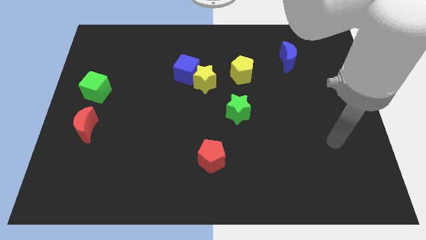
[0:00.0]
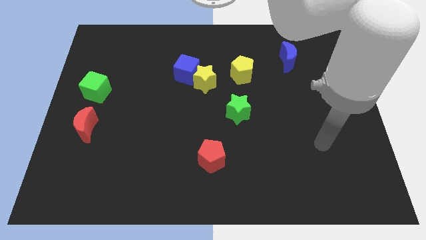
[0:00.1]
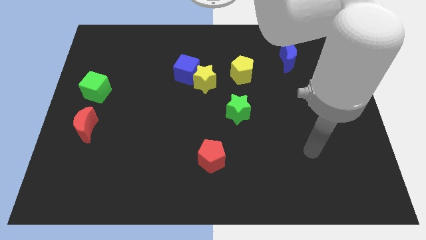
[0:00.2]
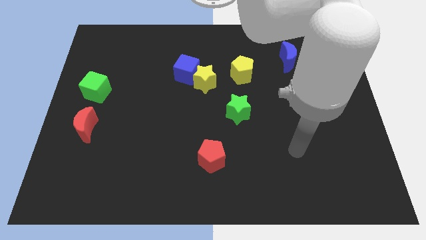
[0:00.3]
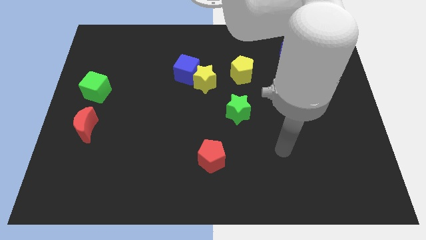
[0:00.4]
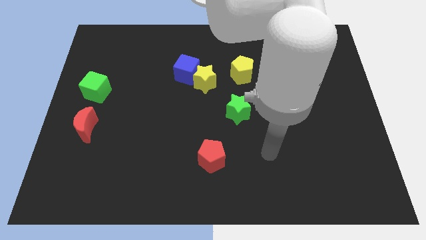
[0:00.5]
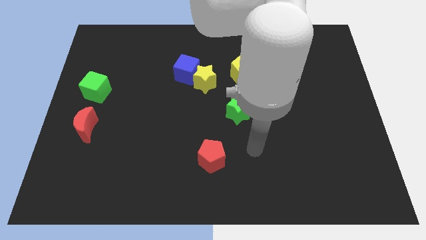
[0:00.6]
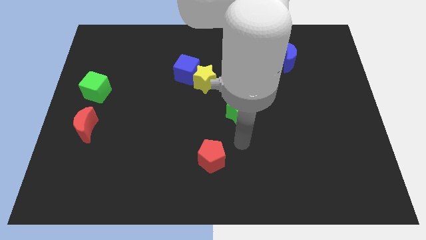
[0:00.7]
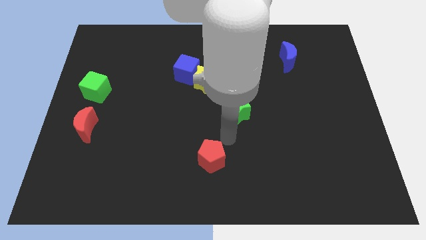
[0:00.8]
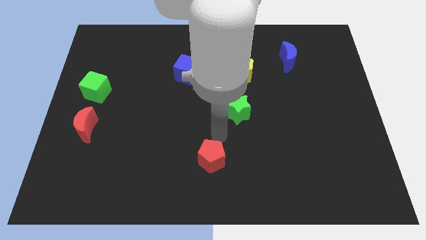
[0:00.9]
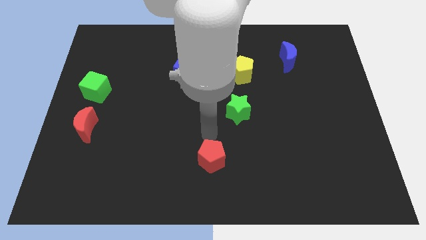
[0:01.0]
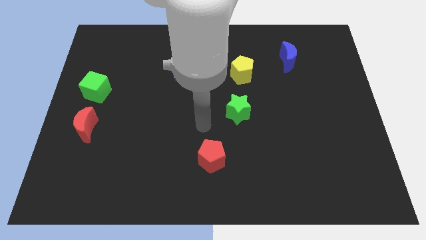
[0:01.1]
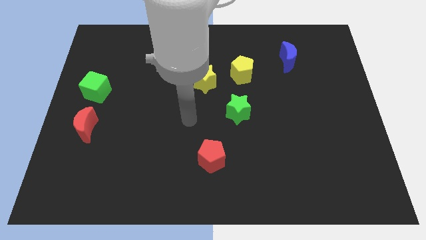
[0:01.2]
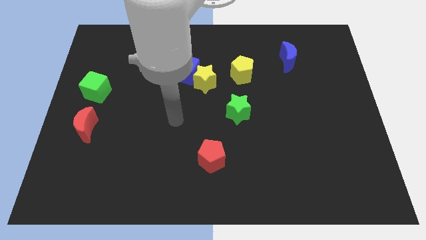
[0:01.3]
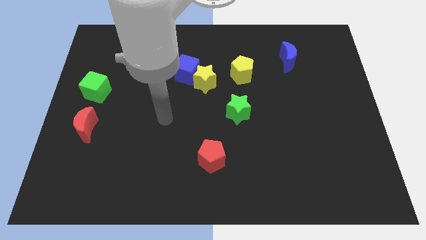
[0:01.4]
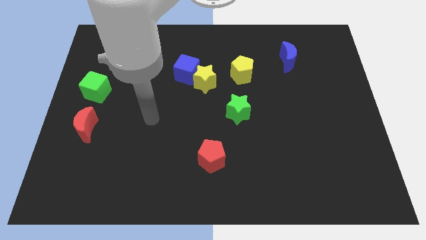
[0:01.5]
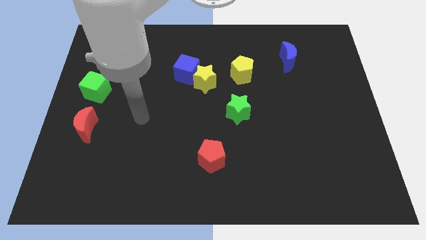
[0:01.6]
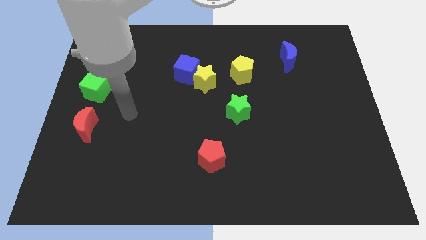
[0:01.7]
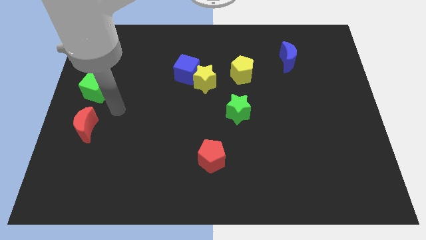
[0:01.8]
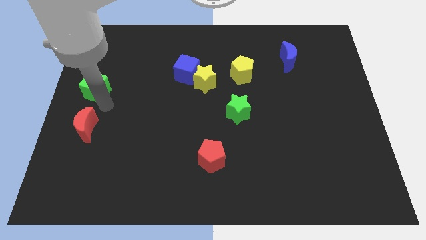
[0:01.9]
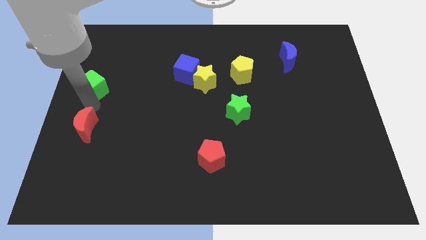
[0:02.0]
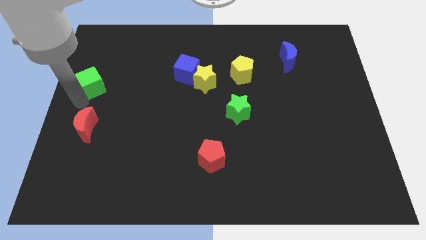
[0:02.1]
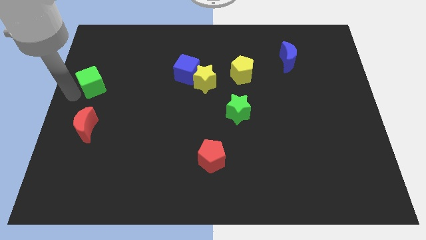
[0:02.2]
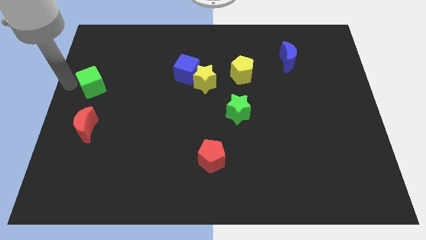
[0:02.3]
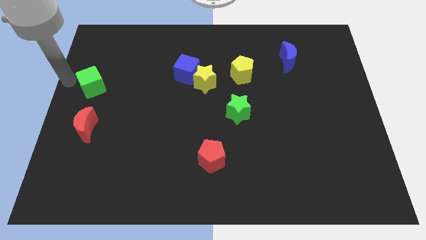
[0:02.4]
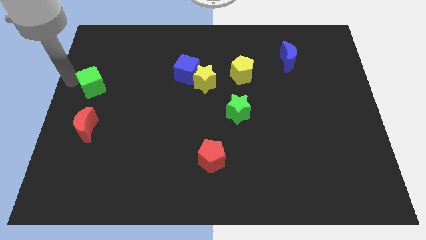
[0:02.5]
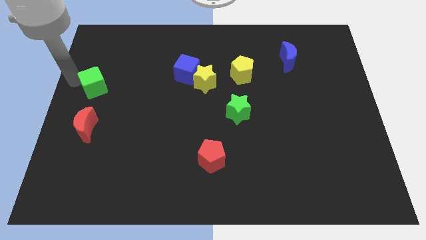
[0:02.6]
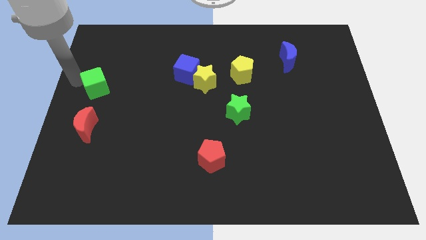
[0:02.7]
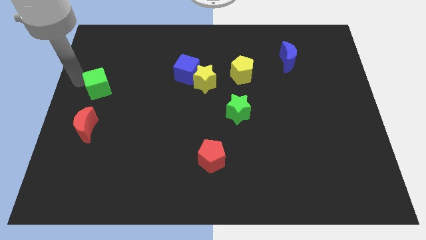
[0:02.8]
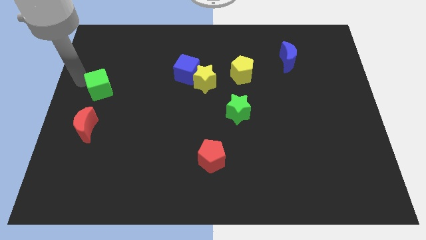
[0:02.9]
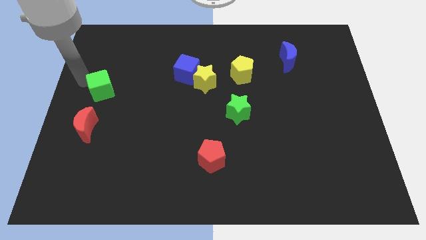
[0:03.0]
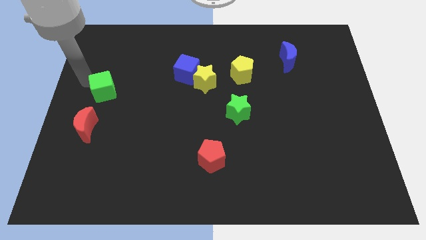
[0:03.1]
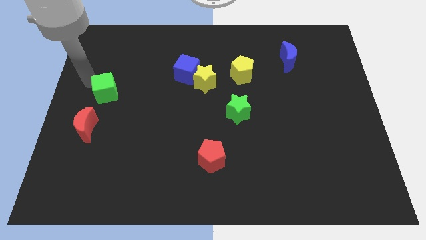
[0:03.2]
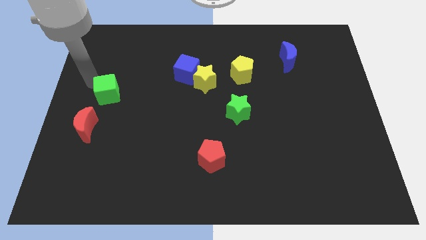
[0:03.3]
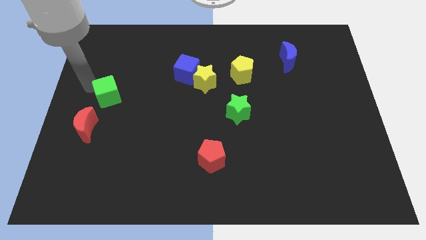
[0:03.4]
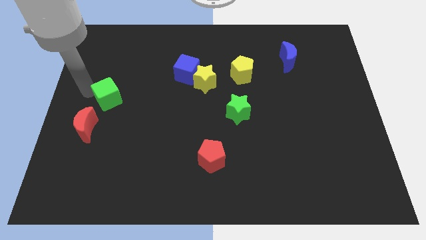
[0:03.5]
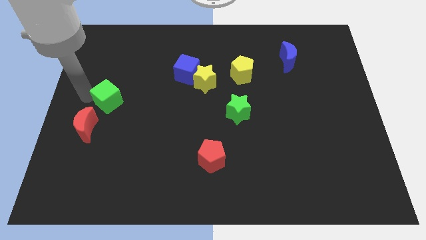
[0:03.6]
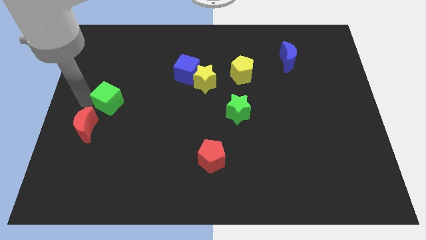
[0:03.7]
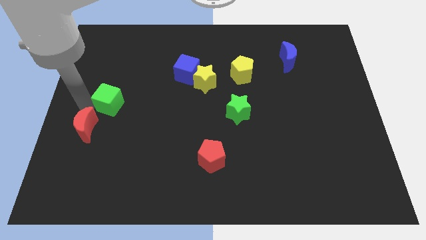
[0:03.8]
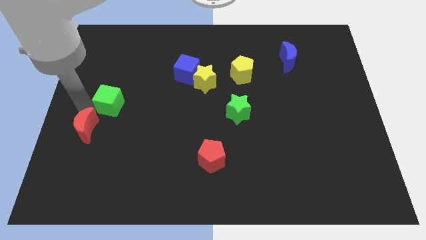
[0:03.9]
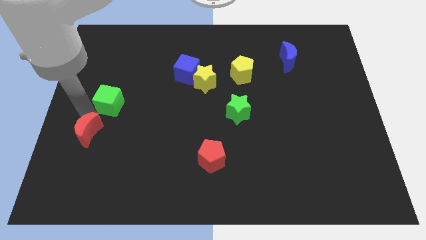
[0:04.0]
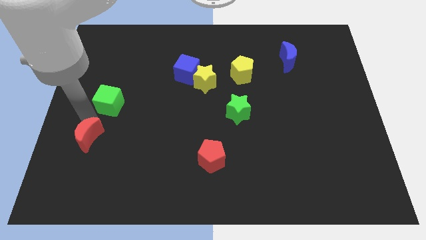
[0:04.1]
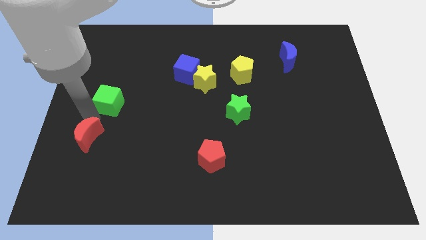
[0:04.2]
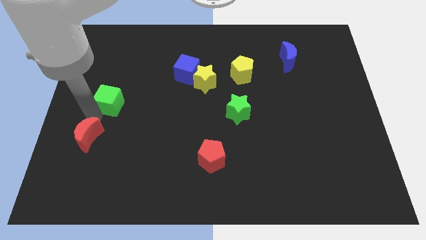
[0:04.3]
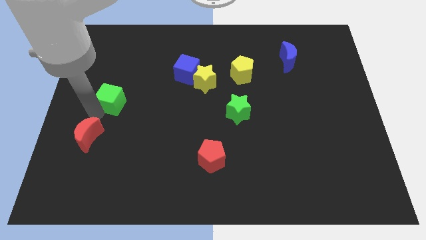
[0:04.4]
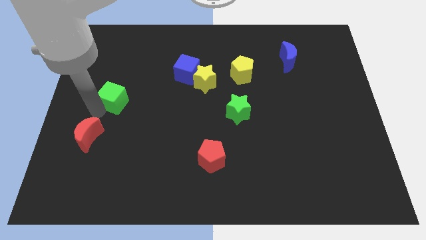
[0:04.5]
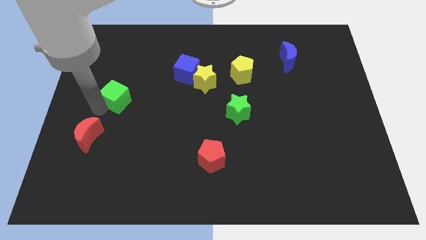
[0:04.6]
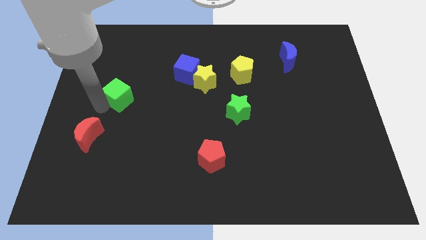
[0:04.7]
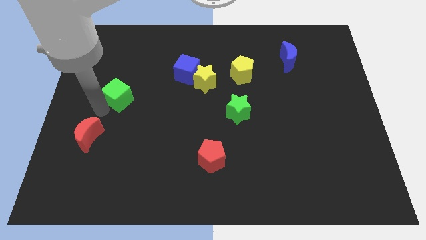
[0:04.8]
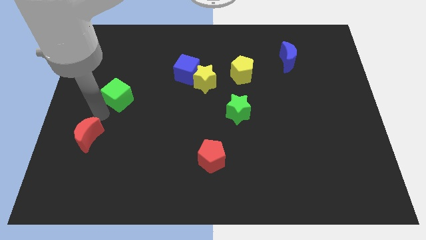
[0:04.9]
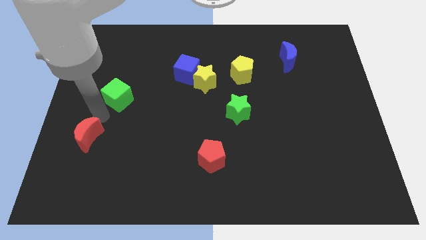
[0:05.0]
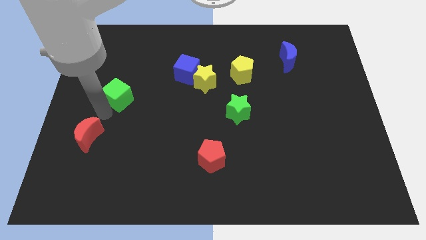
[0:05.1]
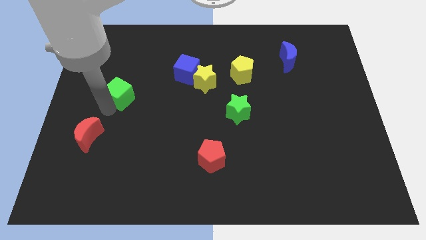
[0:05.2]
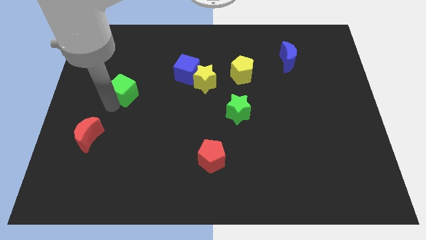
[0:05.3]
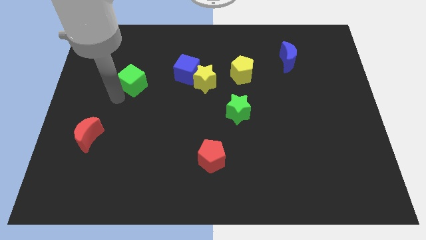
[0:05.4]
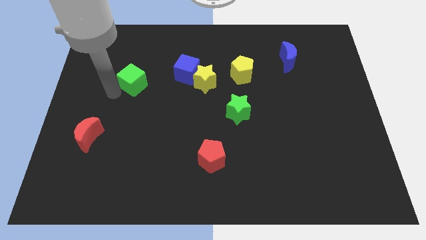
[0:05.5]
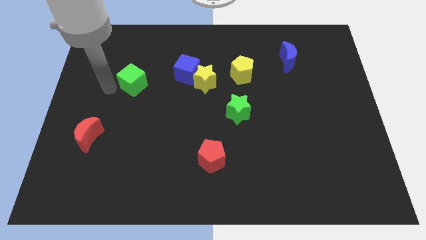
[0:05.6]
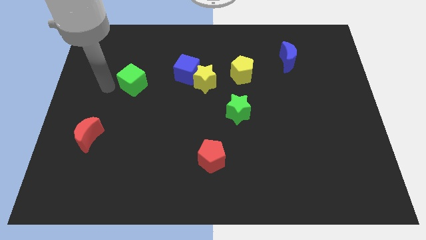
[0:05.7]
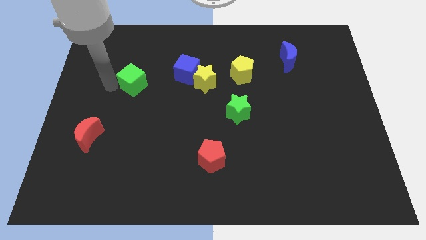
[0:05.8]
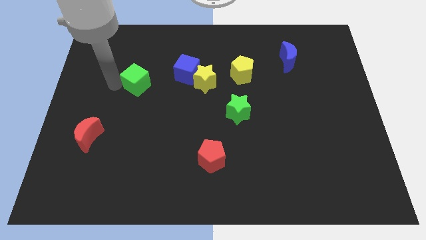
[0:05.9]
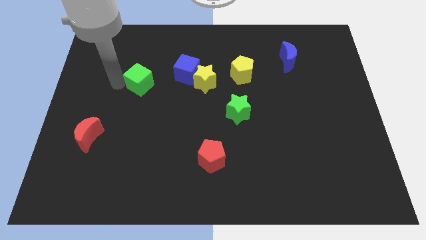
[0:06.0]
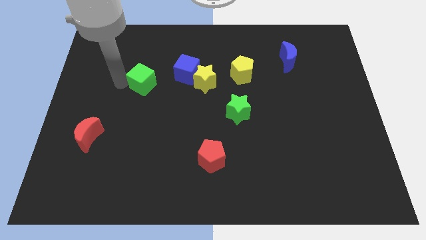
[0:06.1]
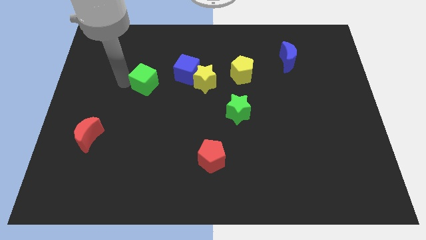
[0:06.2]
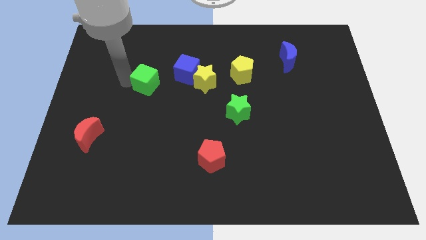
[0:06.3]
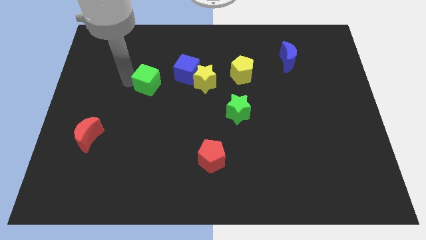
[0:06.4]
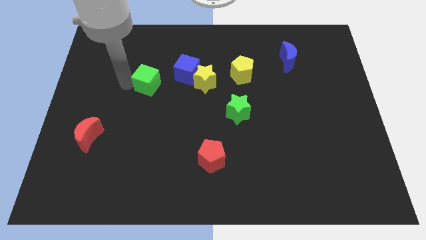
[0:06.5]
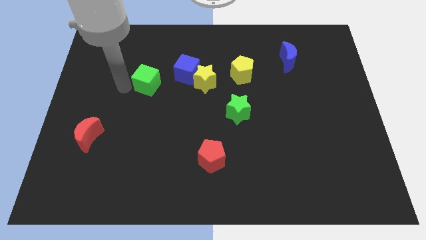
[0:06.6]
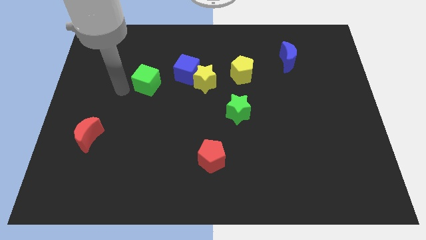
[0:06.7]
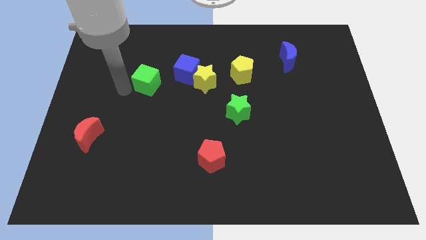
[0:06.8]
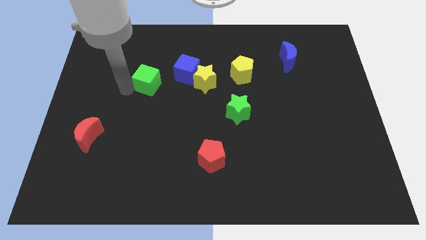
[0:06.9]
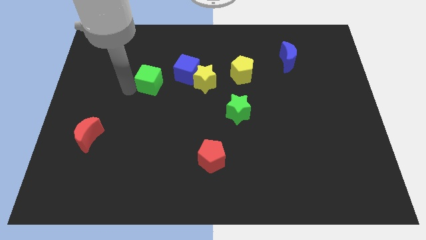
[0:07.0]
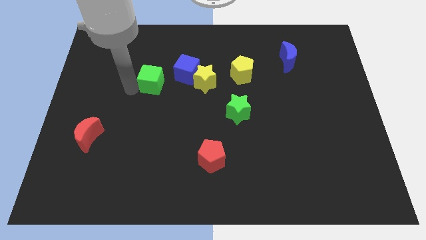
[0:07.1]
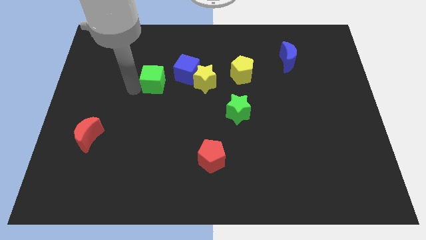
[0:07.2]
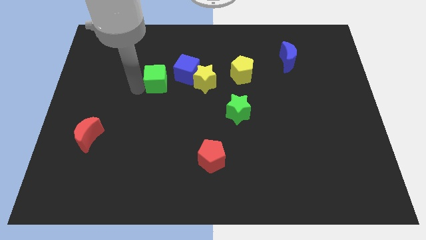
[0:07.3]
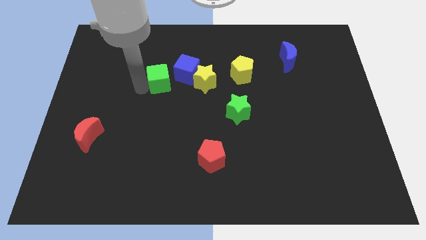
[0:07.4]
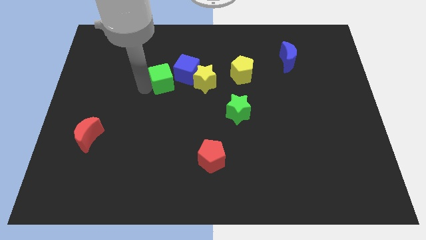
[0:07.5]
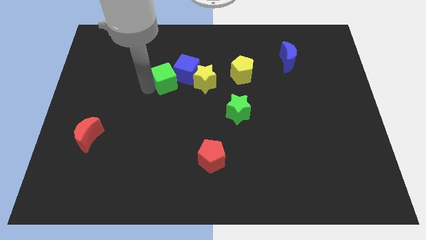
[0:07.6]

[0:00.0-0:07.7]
put the green cube towards the blue cube
